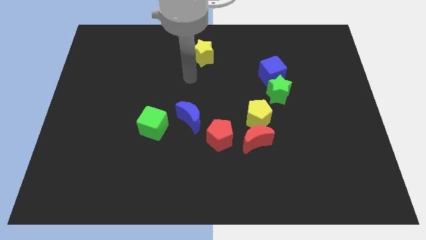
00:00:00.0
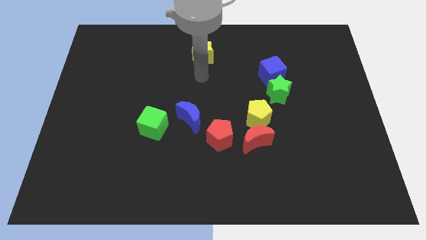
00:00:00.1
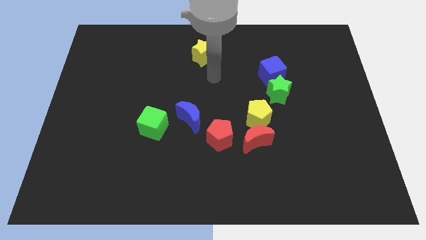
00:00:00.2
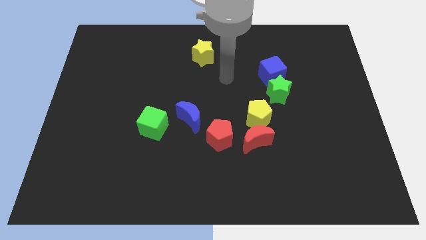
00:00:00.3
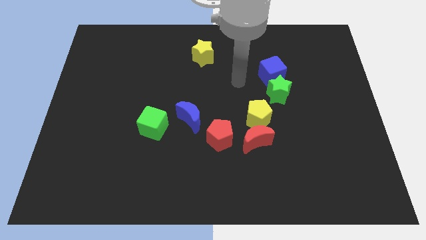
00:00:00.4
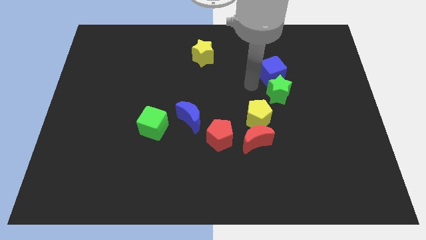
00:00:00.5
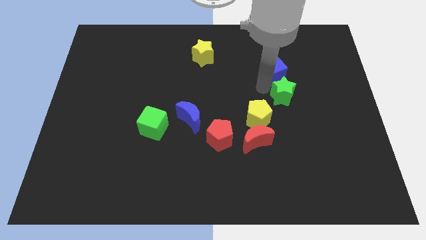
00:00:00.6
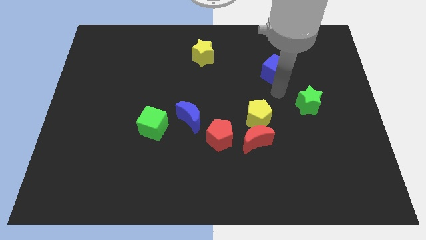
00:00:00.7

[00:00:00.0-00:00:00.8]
move the blue cube away from the green star

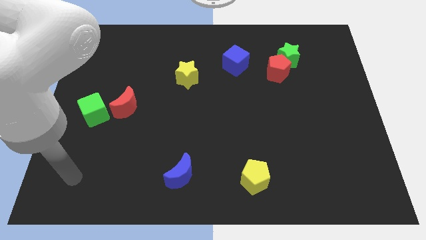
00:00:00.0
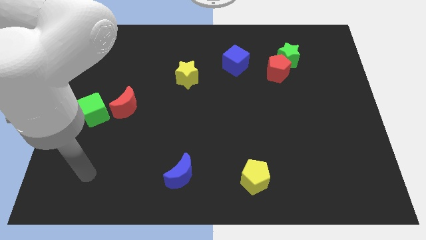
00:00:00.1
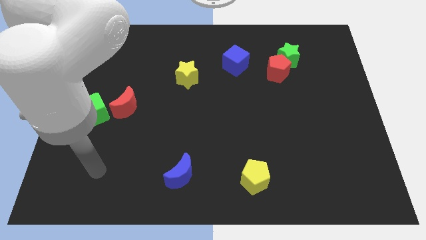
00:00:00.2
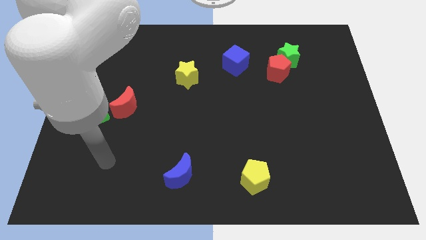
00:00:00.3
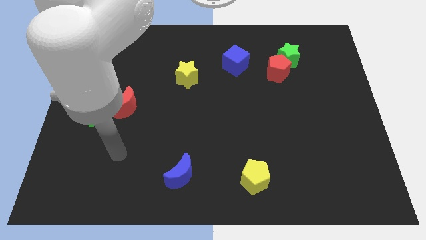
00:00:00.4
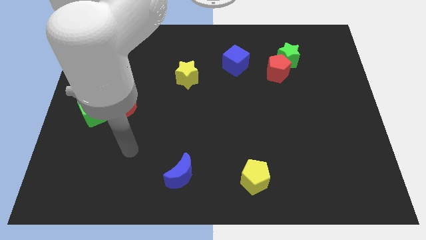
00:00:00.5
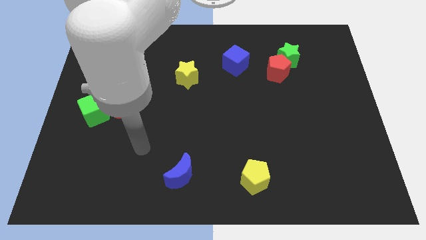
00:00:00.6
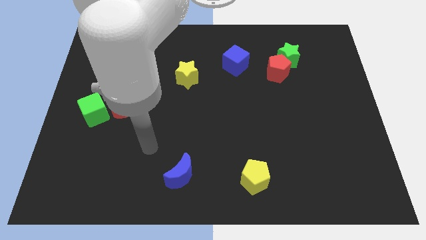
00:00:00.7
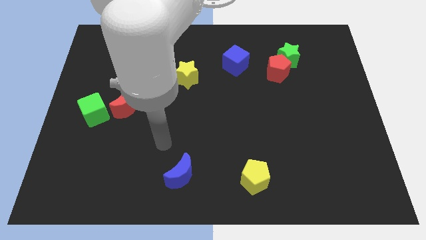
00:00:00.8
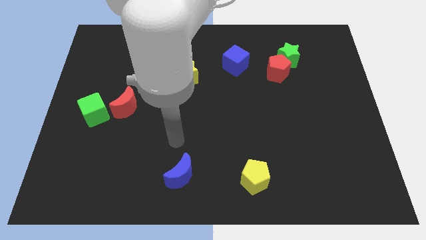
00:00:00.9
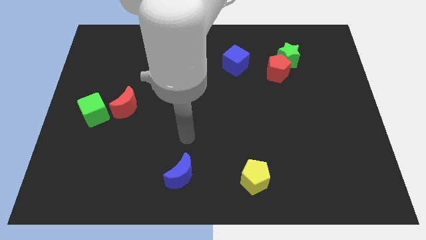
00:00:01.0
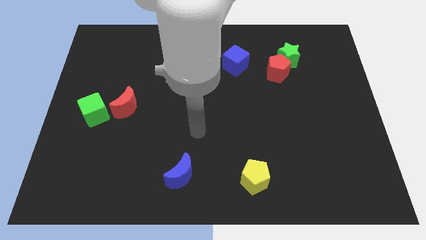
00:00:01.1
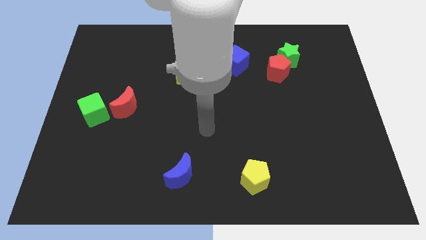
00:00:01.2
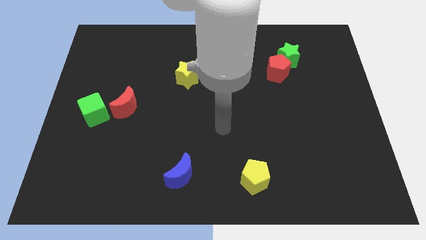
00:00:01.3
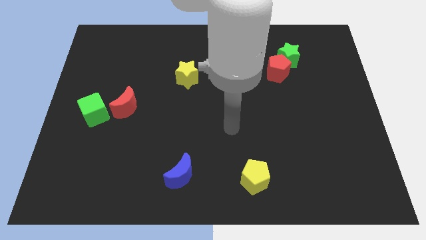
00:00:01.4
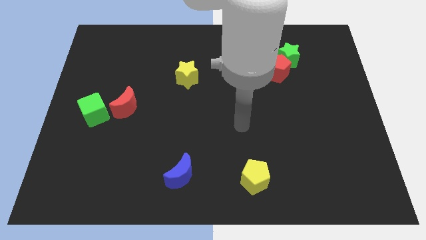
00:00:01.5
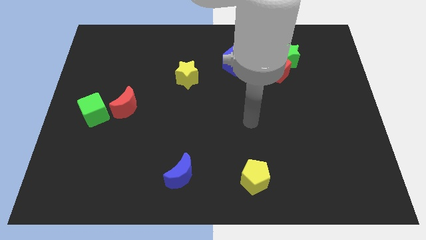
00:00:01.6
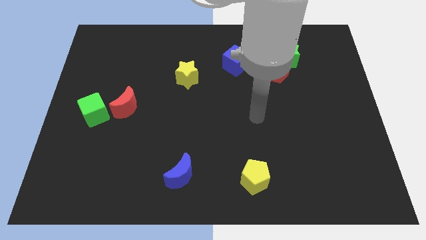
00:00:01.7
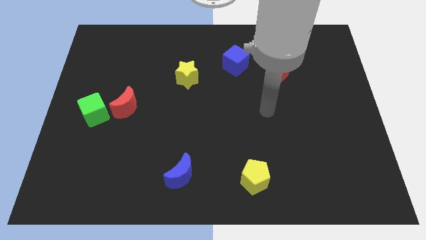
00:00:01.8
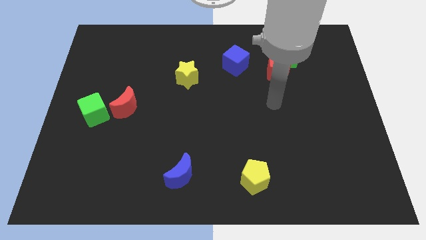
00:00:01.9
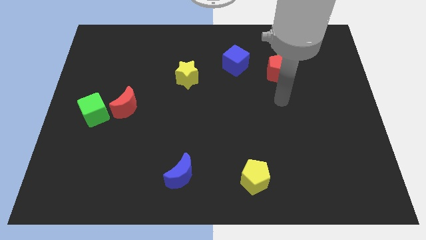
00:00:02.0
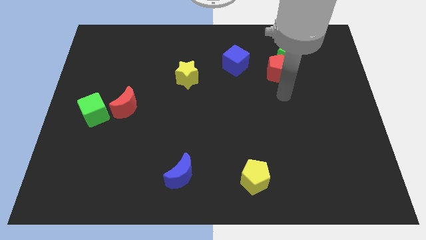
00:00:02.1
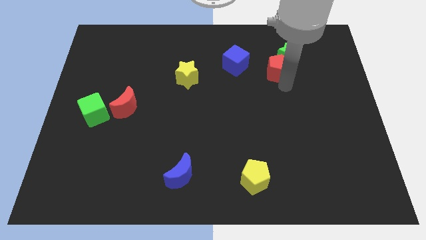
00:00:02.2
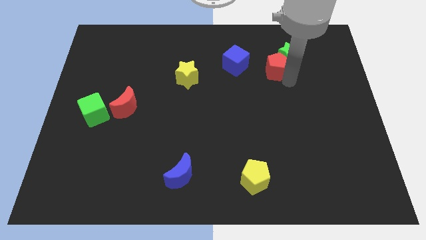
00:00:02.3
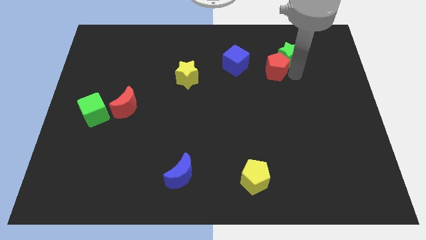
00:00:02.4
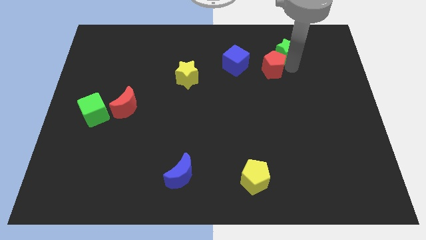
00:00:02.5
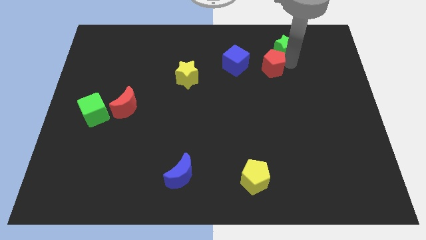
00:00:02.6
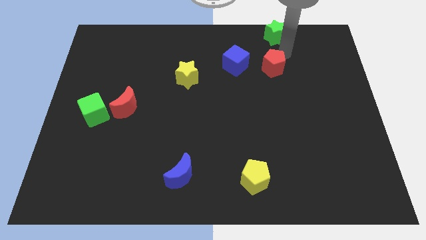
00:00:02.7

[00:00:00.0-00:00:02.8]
separate the red pentagon from the green star

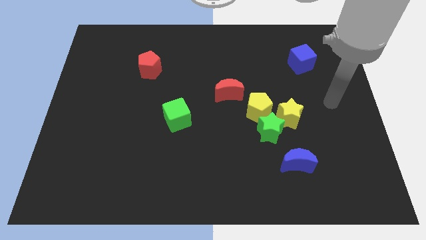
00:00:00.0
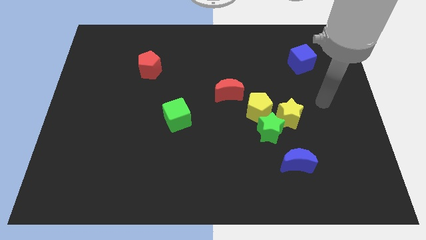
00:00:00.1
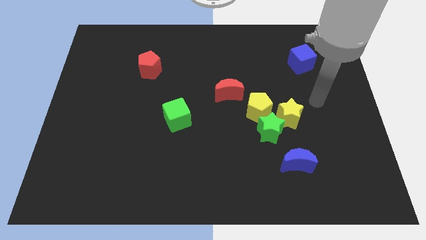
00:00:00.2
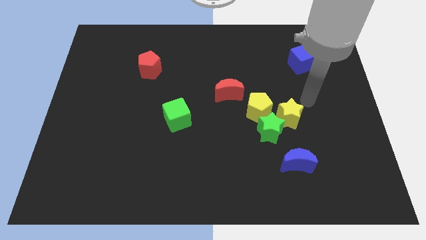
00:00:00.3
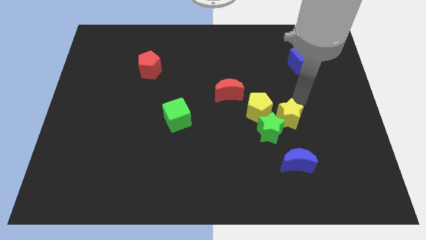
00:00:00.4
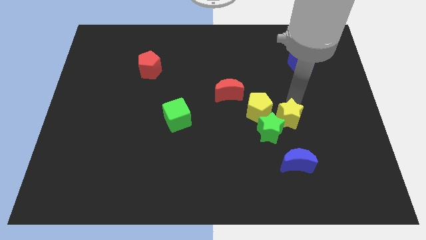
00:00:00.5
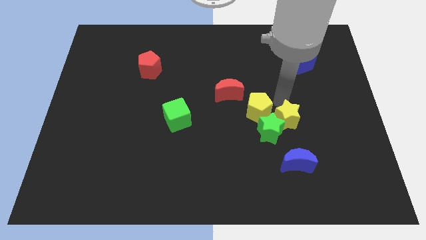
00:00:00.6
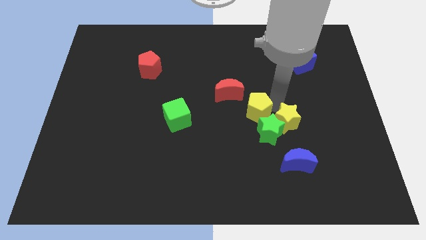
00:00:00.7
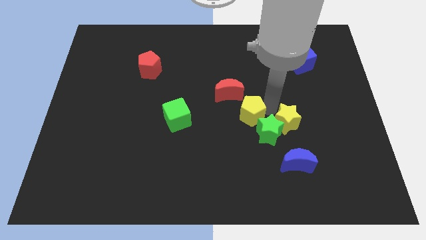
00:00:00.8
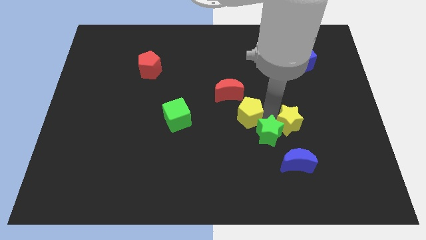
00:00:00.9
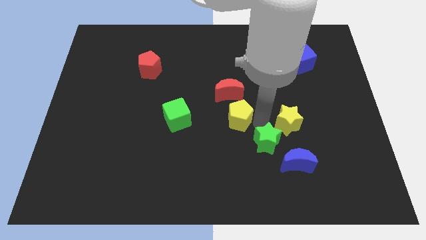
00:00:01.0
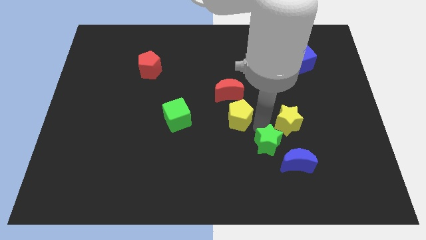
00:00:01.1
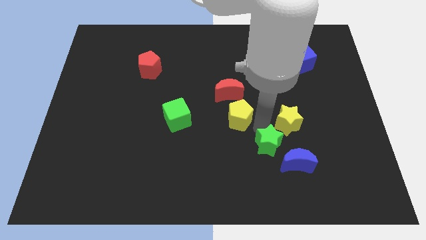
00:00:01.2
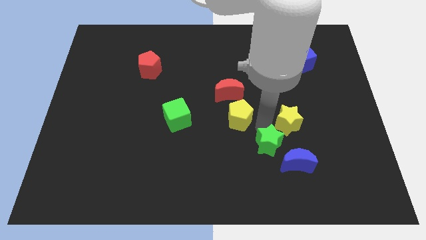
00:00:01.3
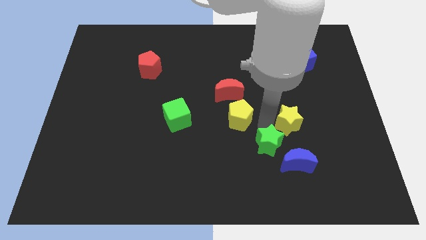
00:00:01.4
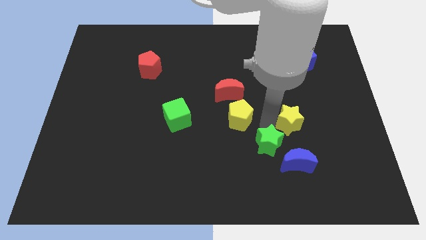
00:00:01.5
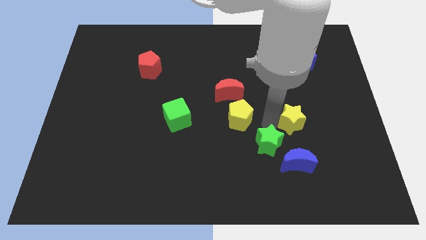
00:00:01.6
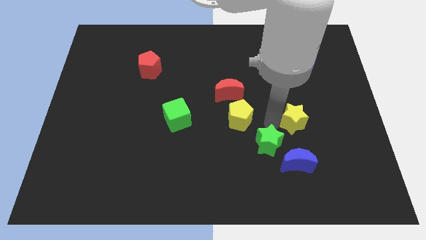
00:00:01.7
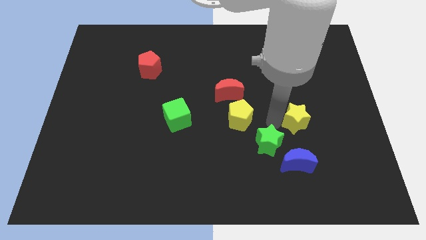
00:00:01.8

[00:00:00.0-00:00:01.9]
pull the yellow star apart from the green star and yellow pentagon

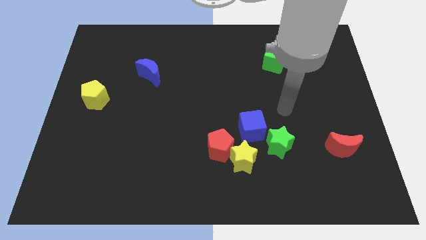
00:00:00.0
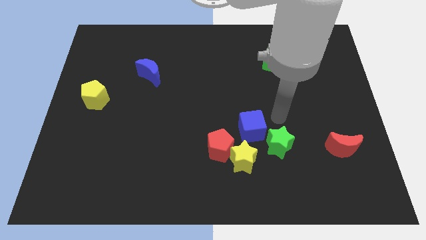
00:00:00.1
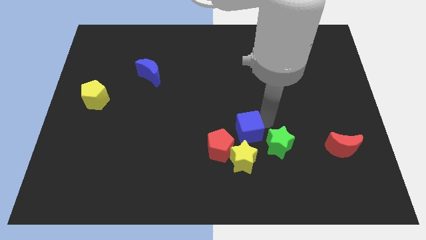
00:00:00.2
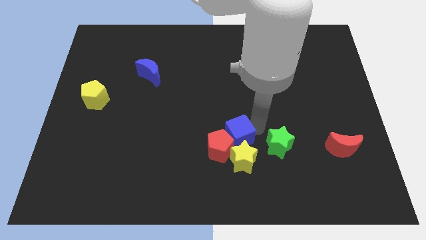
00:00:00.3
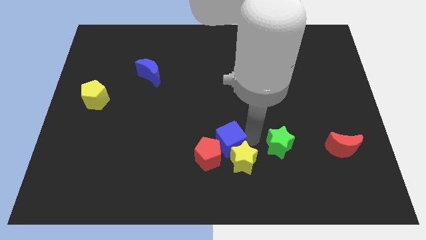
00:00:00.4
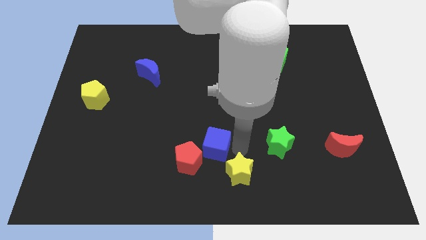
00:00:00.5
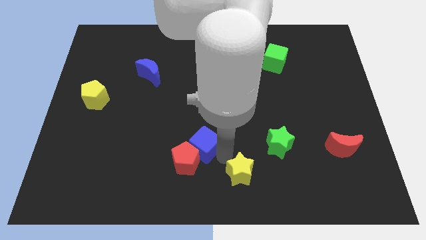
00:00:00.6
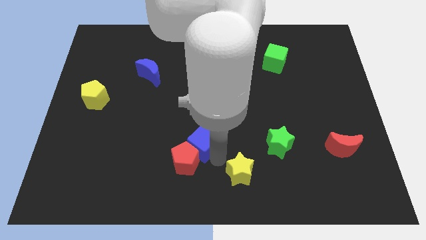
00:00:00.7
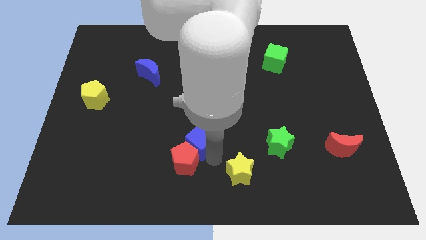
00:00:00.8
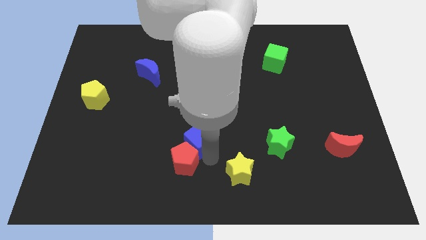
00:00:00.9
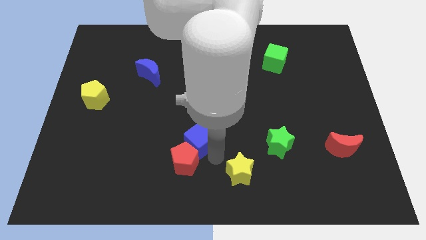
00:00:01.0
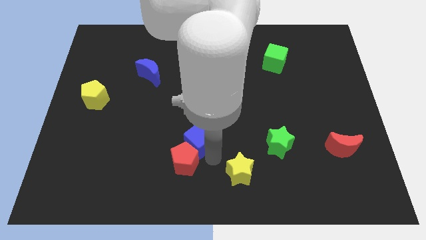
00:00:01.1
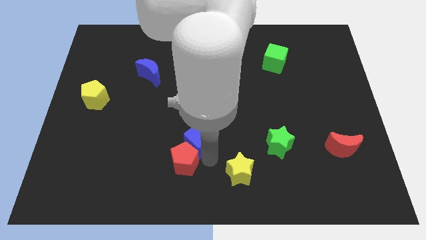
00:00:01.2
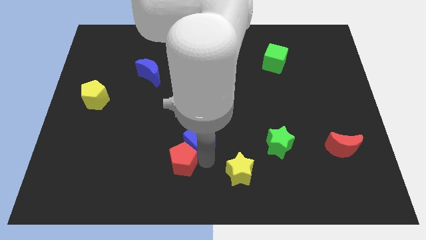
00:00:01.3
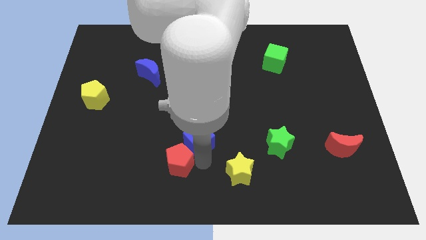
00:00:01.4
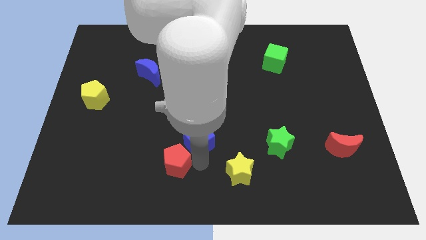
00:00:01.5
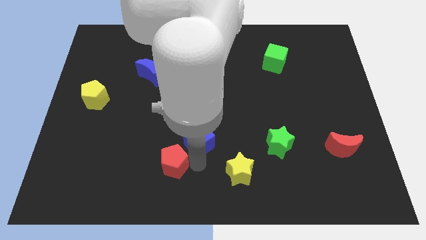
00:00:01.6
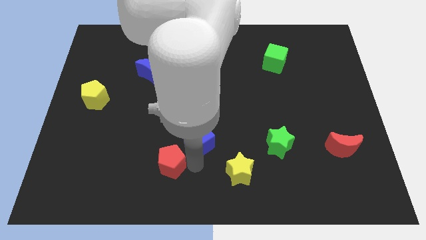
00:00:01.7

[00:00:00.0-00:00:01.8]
separate the red pentagon from the yellow star and blue cube

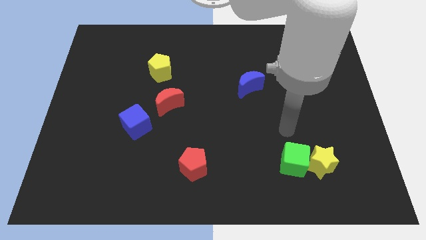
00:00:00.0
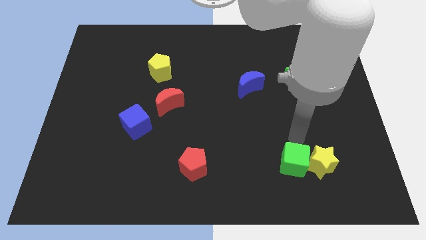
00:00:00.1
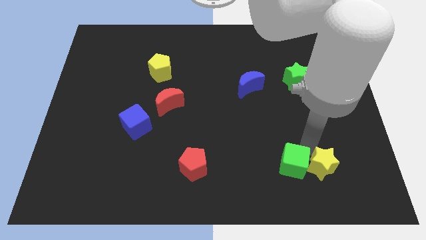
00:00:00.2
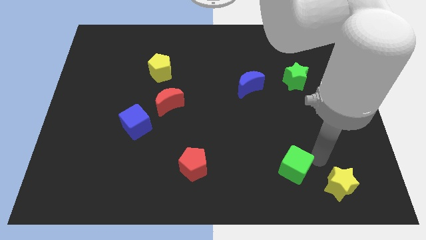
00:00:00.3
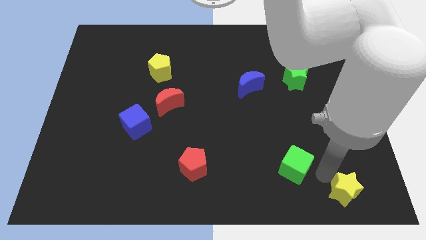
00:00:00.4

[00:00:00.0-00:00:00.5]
pull the green cube apart from the yellow star

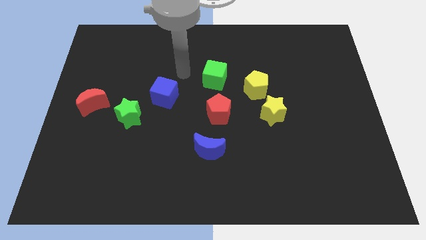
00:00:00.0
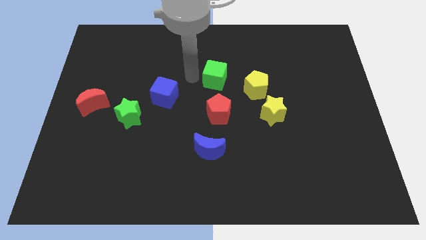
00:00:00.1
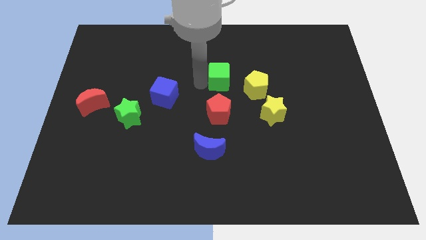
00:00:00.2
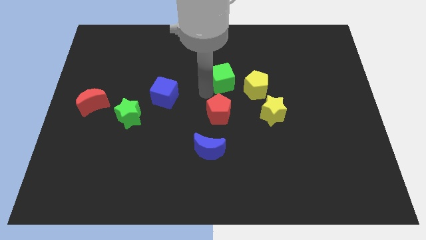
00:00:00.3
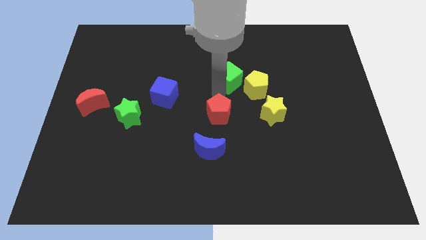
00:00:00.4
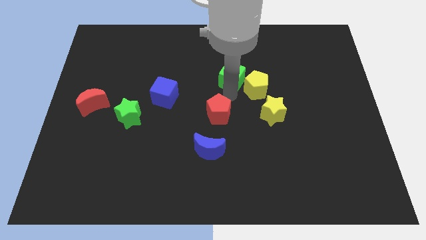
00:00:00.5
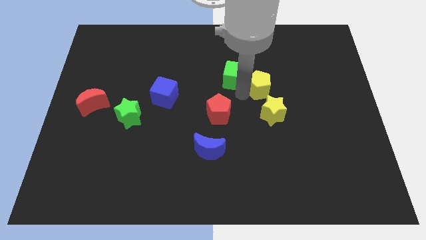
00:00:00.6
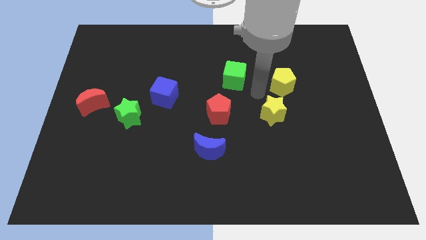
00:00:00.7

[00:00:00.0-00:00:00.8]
separate the yellow star from the yellow pentagon

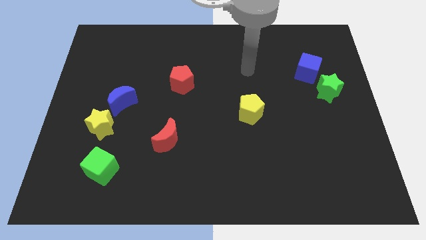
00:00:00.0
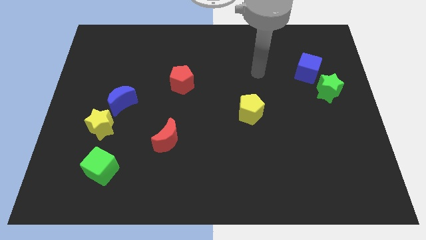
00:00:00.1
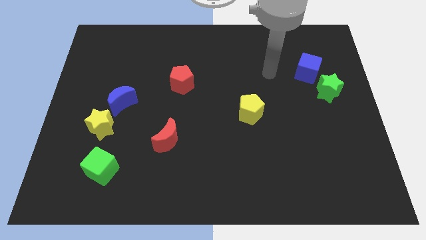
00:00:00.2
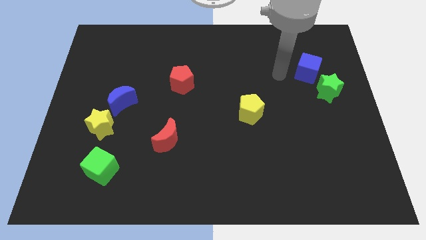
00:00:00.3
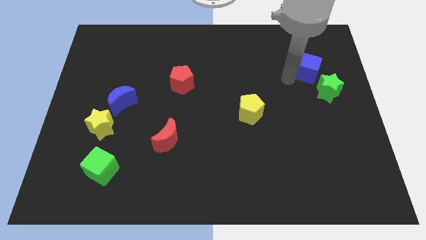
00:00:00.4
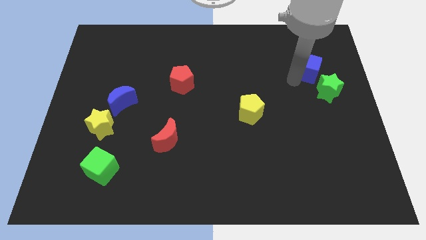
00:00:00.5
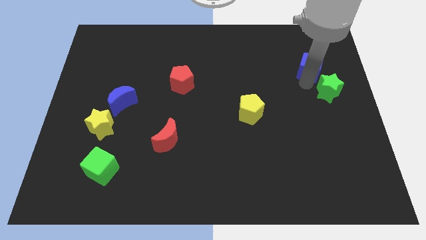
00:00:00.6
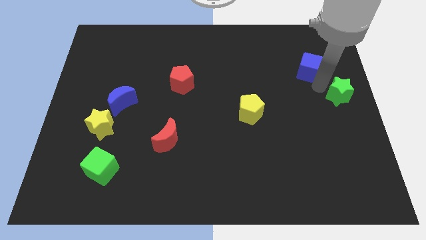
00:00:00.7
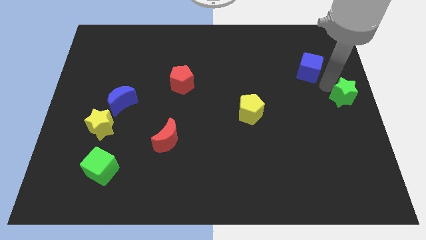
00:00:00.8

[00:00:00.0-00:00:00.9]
separate the blue cube from the green star
